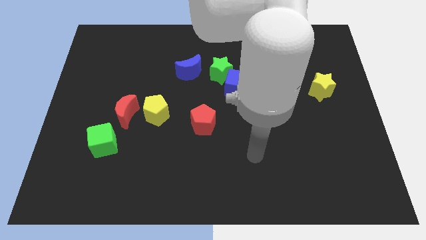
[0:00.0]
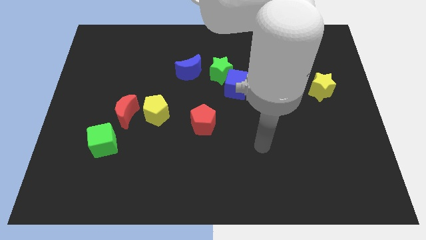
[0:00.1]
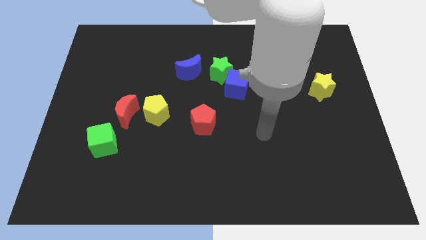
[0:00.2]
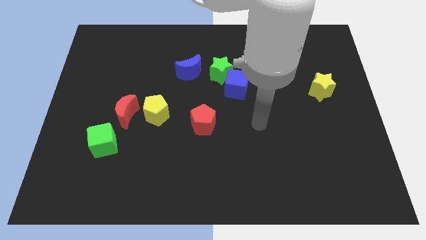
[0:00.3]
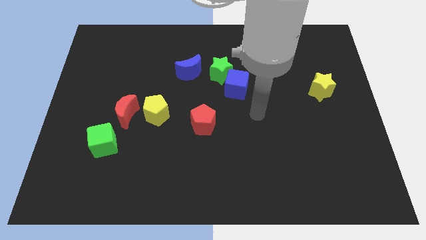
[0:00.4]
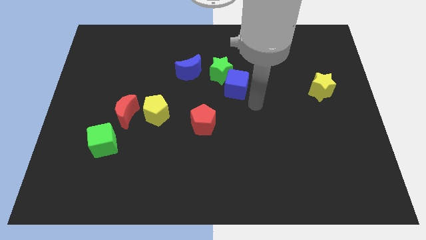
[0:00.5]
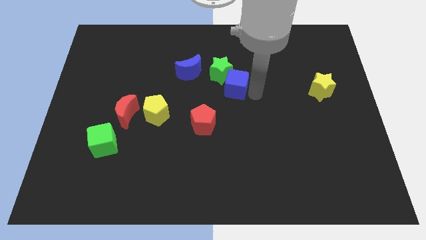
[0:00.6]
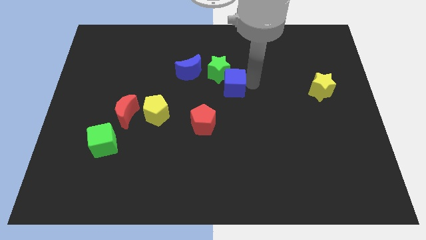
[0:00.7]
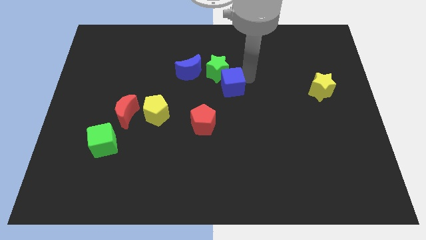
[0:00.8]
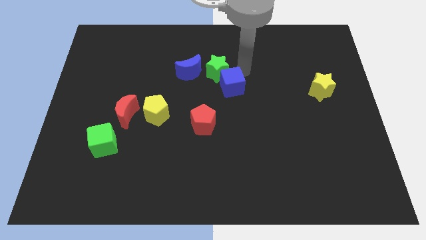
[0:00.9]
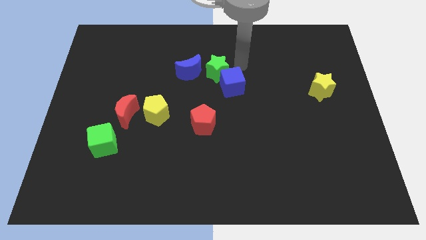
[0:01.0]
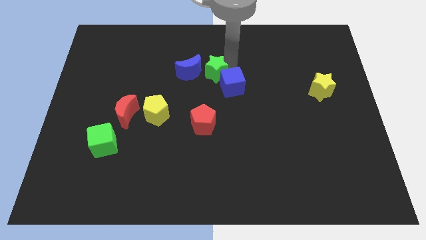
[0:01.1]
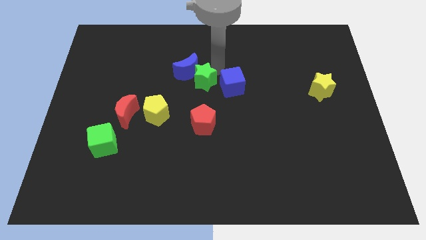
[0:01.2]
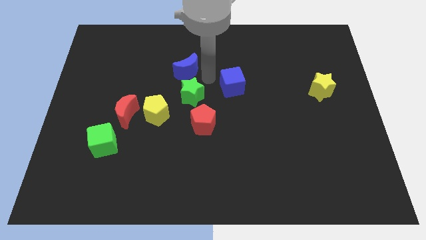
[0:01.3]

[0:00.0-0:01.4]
move the blue cube away from the green star

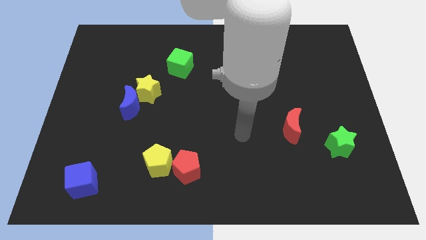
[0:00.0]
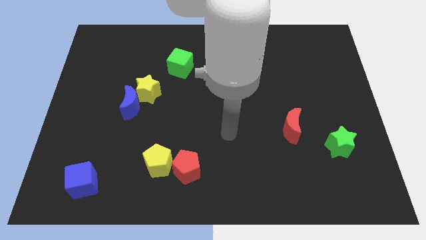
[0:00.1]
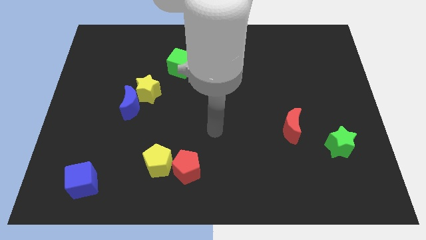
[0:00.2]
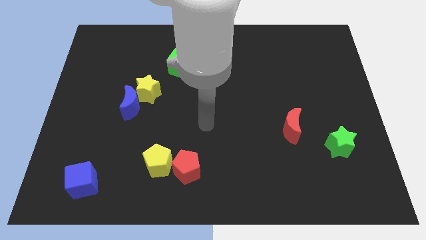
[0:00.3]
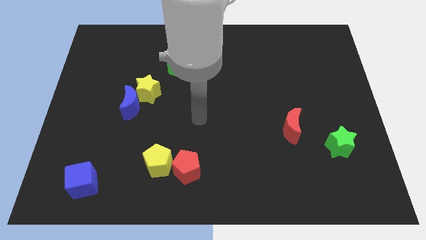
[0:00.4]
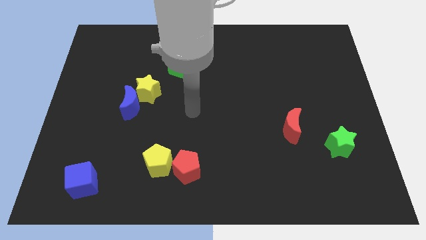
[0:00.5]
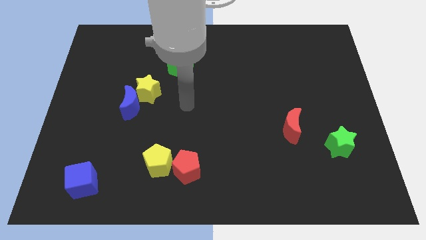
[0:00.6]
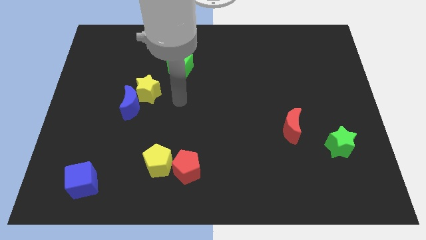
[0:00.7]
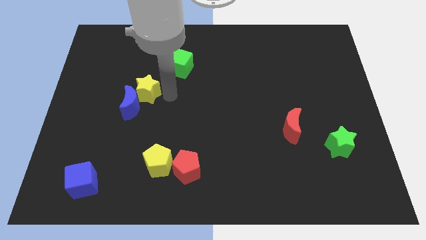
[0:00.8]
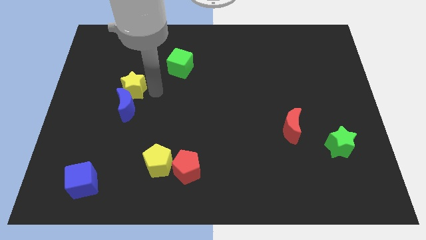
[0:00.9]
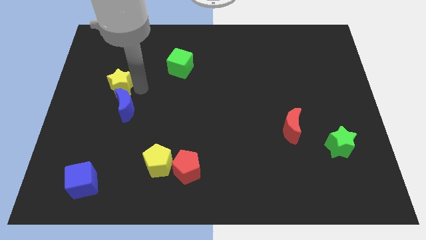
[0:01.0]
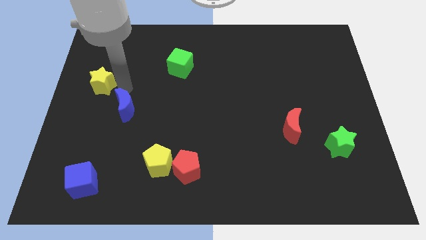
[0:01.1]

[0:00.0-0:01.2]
move the blue moon away from the yellow star

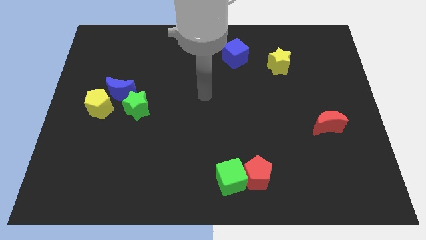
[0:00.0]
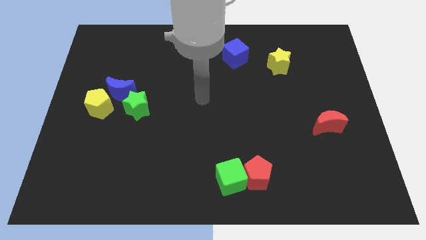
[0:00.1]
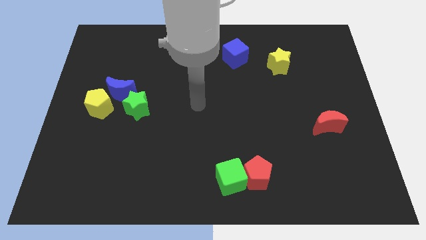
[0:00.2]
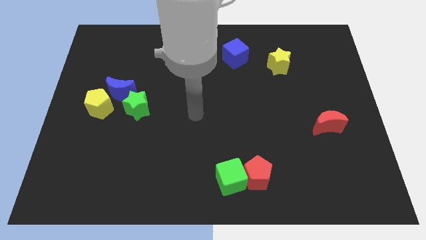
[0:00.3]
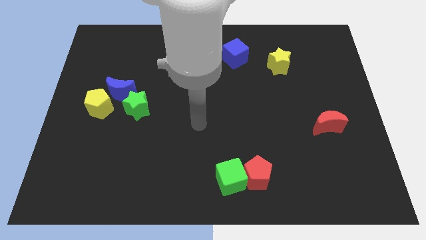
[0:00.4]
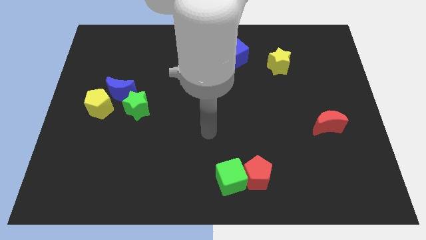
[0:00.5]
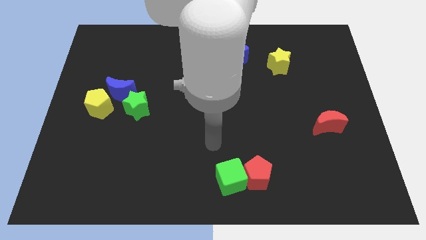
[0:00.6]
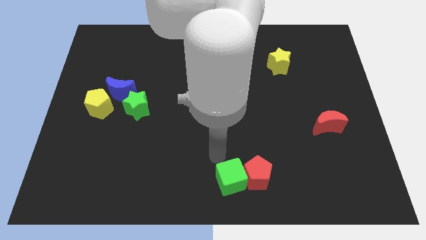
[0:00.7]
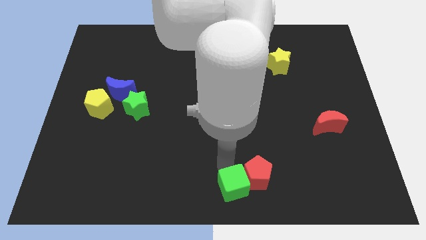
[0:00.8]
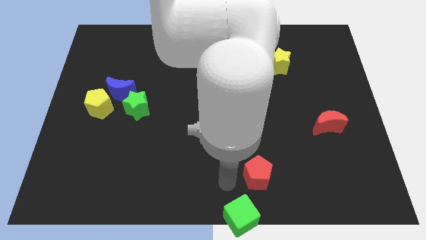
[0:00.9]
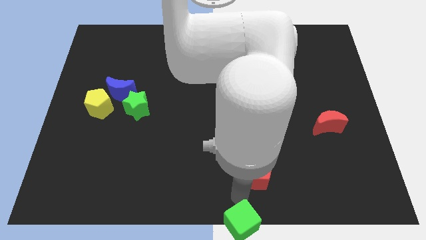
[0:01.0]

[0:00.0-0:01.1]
pull the red pentagon apart from the green cube

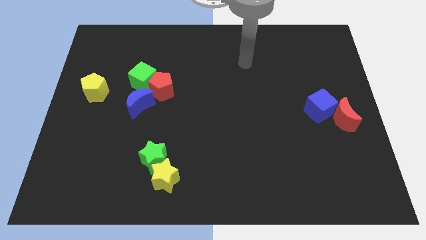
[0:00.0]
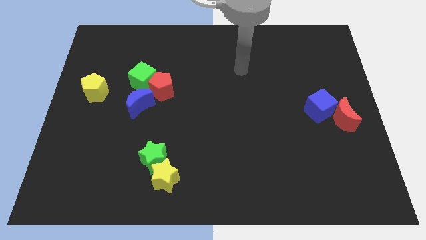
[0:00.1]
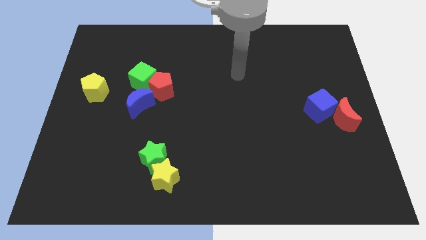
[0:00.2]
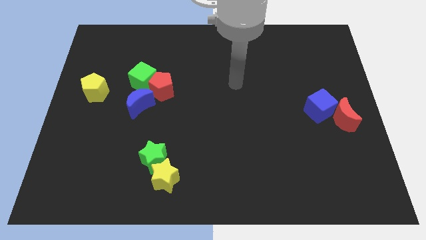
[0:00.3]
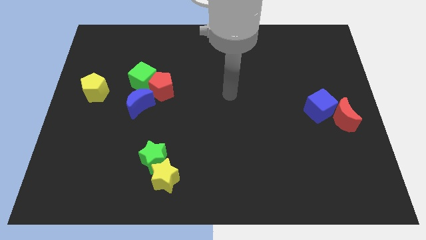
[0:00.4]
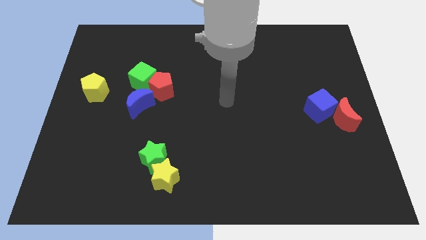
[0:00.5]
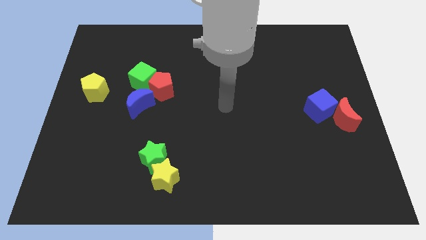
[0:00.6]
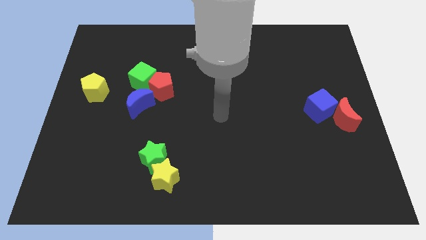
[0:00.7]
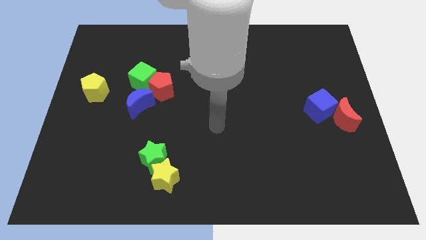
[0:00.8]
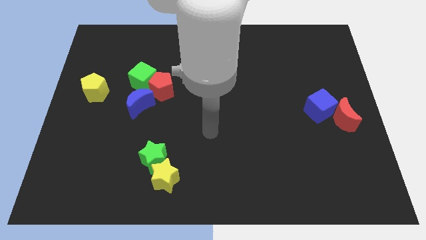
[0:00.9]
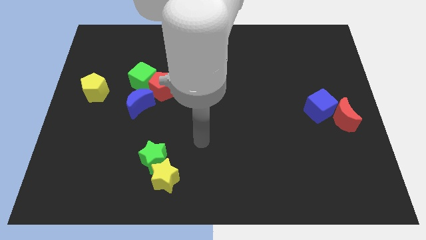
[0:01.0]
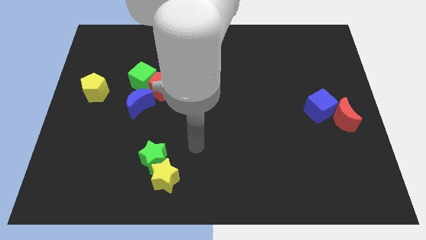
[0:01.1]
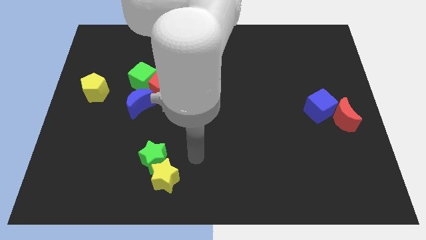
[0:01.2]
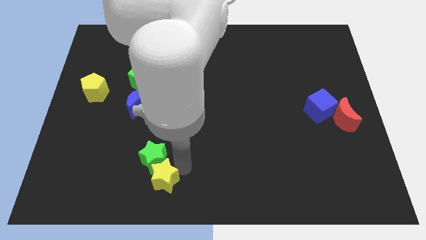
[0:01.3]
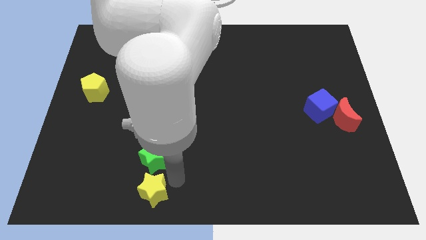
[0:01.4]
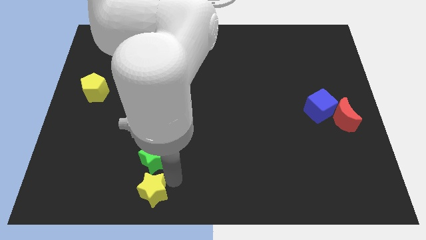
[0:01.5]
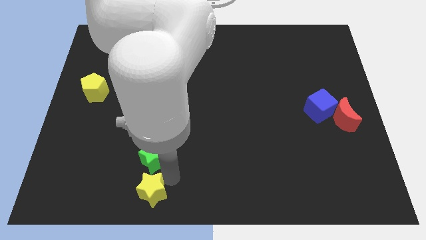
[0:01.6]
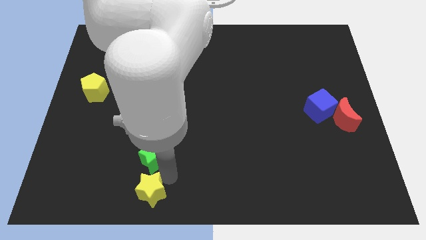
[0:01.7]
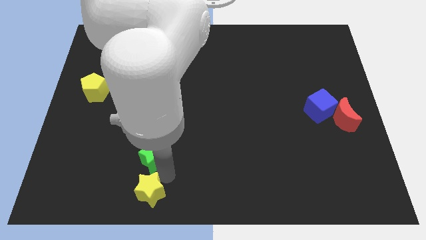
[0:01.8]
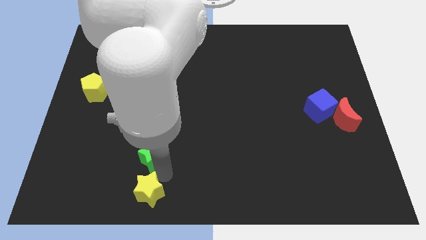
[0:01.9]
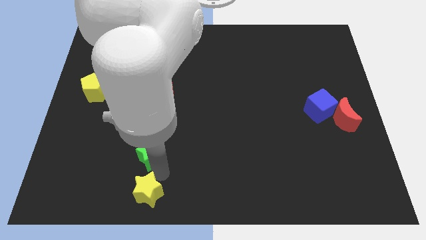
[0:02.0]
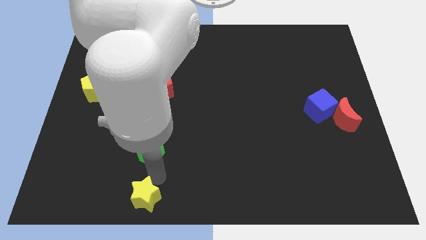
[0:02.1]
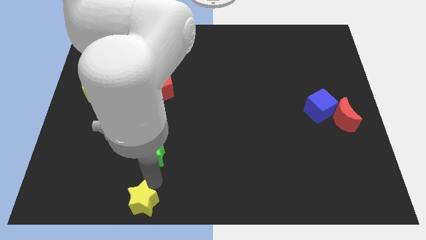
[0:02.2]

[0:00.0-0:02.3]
separate the green star from the yellow star

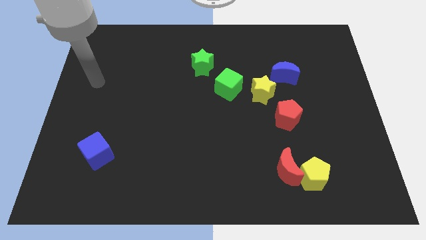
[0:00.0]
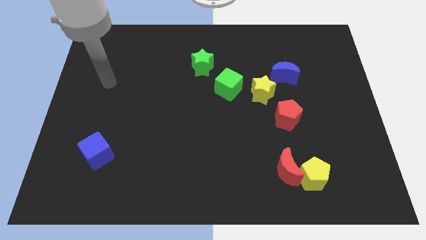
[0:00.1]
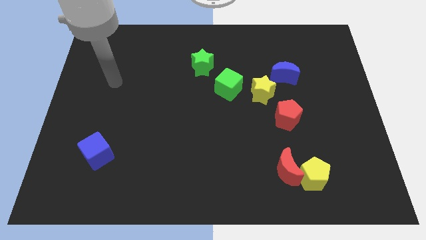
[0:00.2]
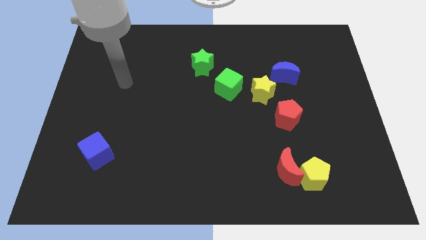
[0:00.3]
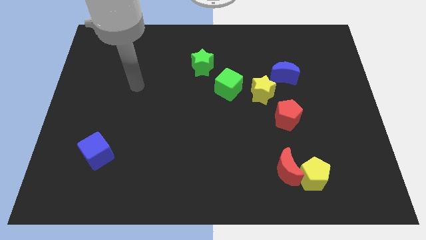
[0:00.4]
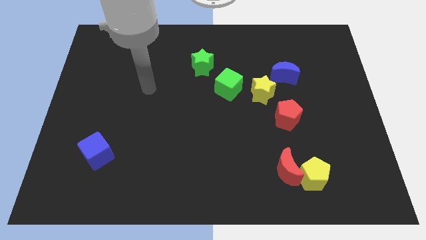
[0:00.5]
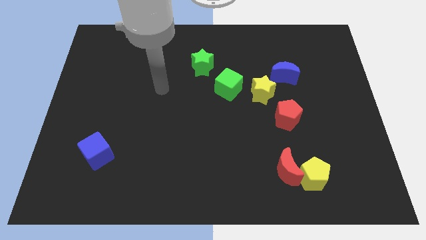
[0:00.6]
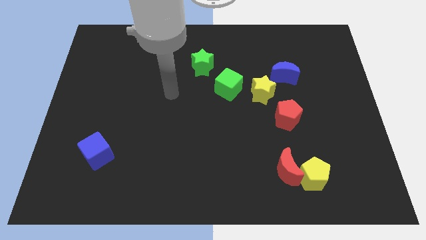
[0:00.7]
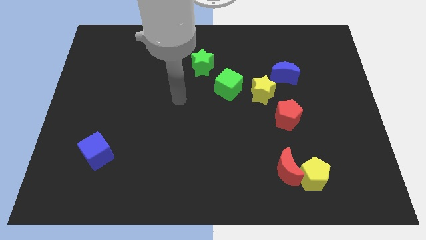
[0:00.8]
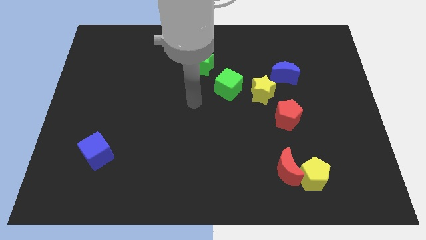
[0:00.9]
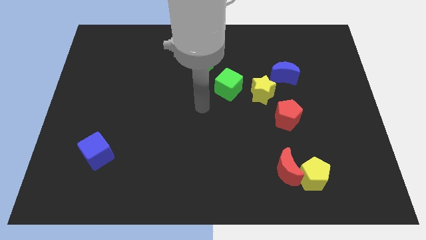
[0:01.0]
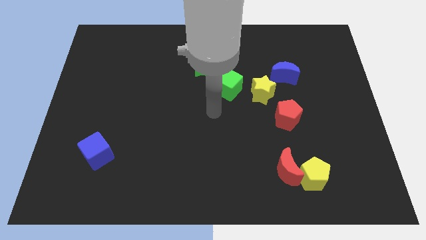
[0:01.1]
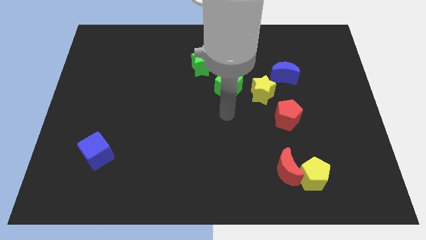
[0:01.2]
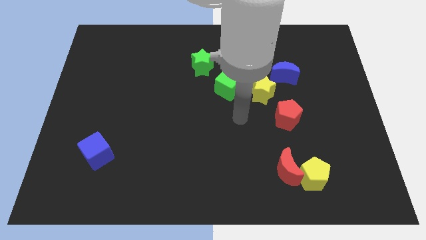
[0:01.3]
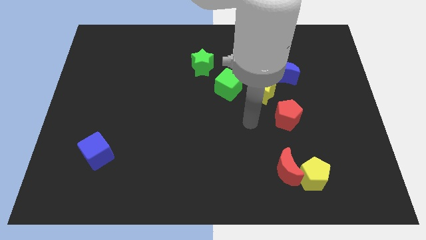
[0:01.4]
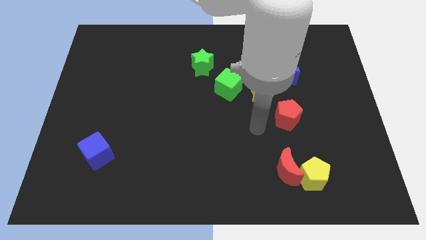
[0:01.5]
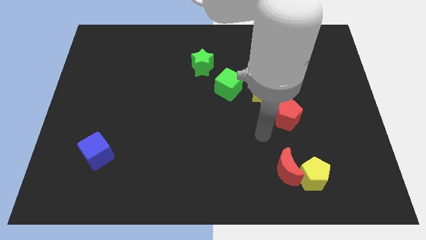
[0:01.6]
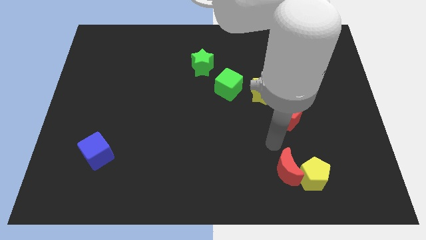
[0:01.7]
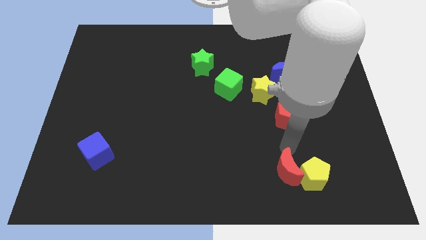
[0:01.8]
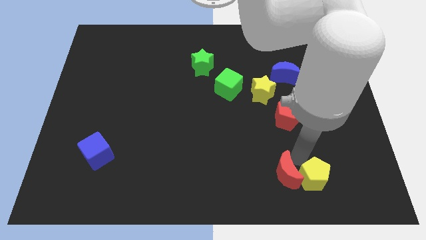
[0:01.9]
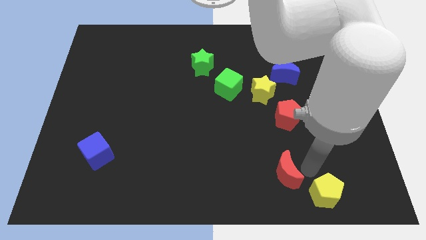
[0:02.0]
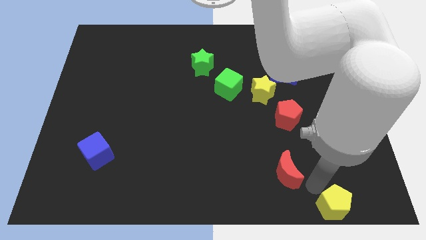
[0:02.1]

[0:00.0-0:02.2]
pull the red moon apart from the yellow pentagon

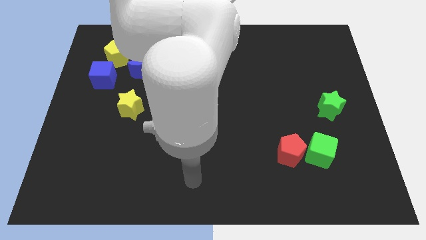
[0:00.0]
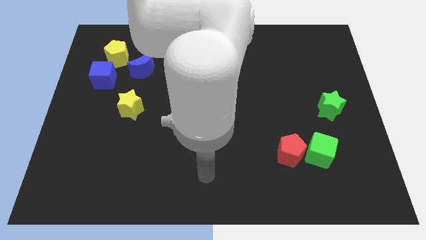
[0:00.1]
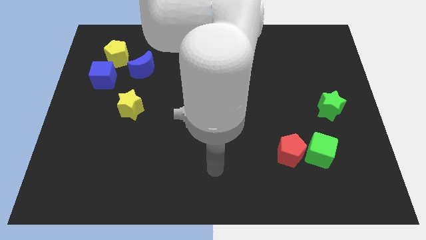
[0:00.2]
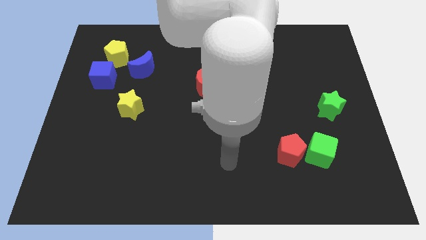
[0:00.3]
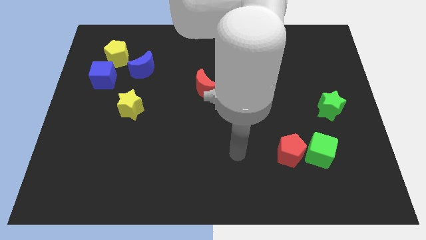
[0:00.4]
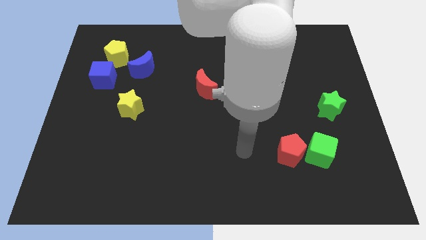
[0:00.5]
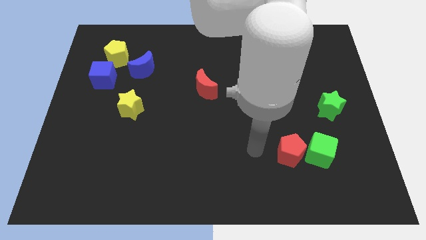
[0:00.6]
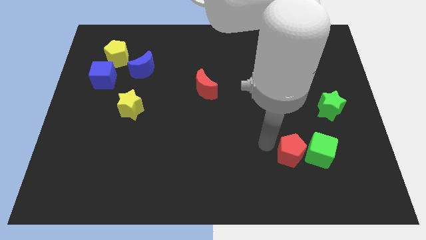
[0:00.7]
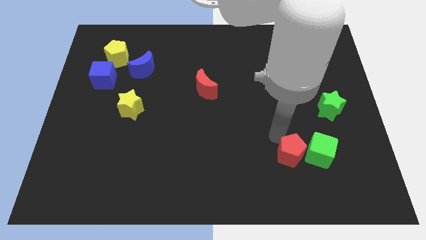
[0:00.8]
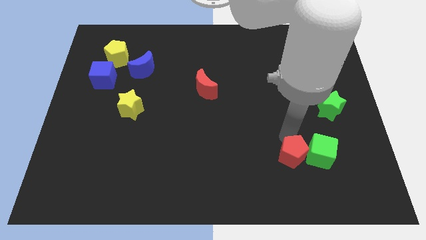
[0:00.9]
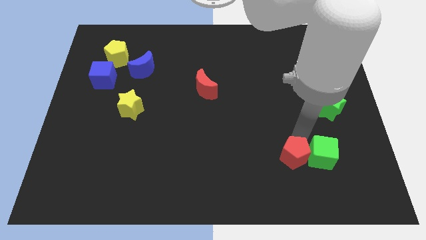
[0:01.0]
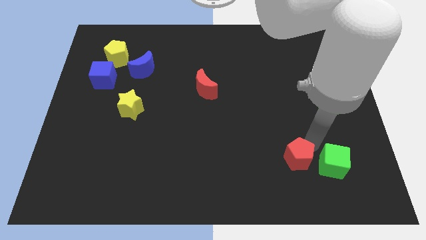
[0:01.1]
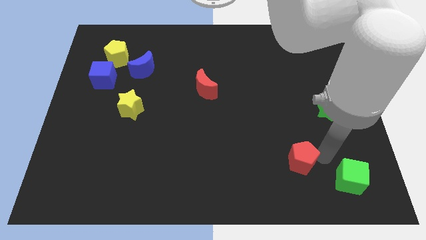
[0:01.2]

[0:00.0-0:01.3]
separate the red pentagon from the green cube
